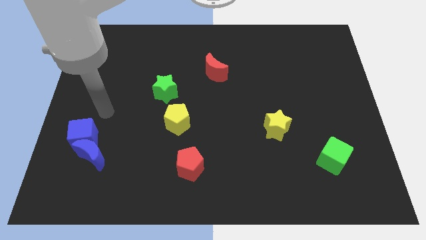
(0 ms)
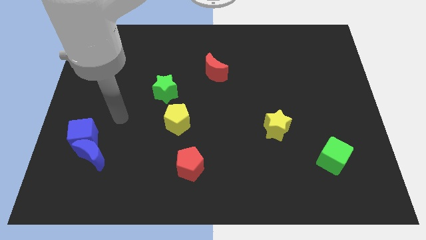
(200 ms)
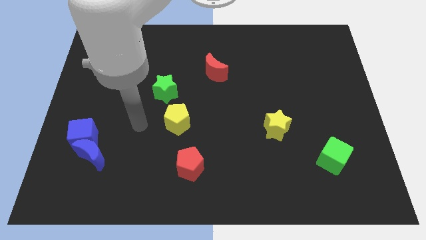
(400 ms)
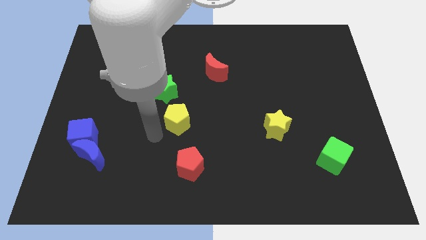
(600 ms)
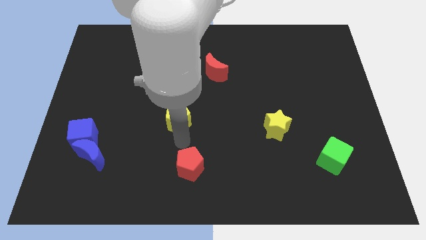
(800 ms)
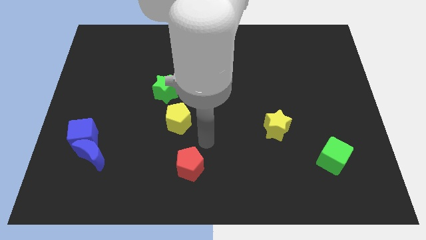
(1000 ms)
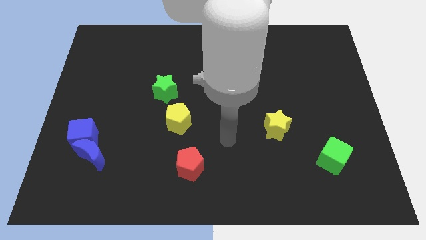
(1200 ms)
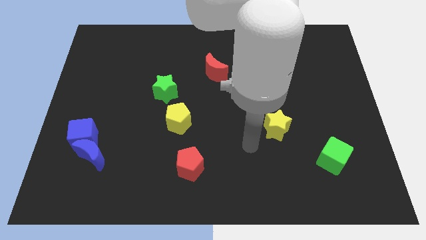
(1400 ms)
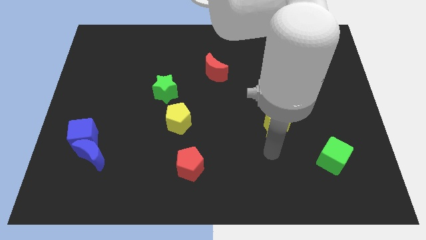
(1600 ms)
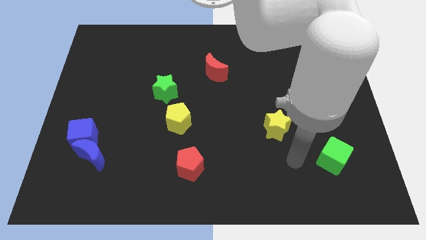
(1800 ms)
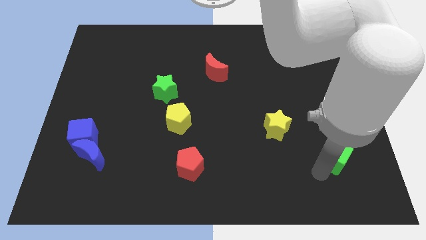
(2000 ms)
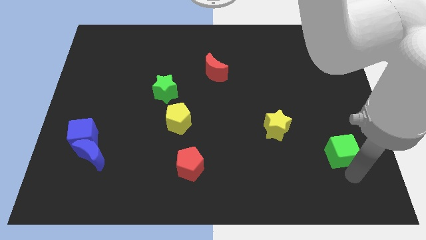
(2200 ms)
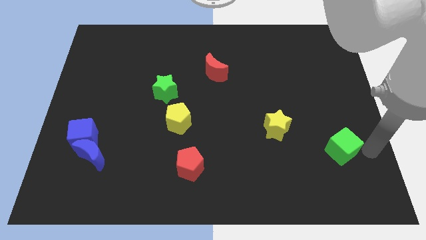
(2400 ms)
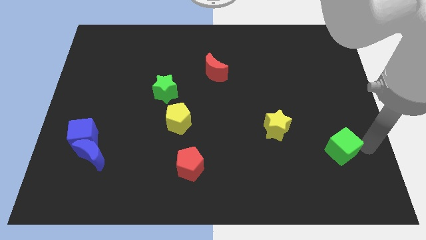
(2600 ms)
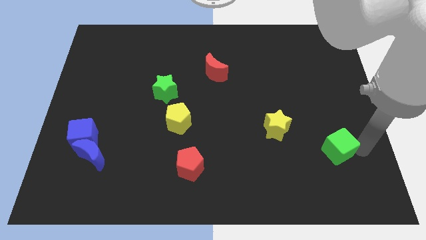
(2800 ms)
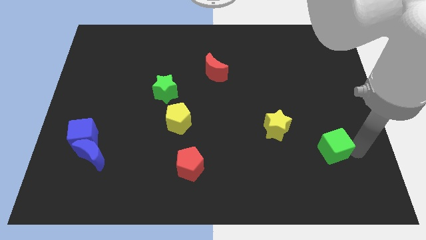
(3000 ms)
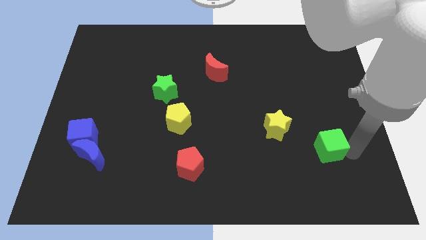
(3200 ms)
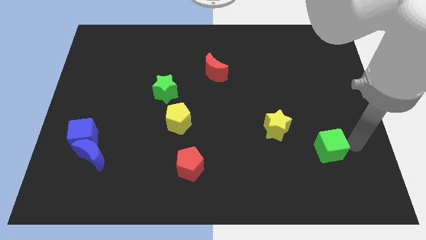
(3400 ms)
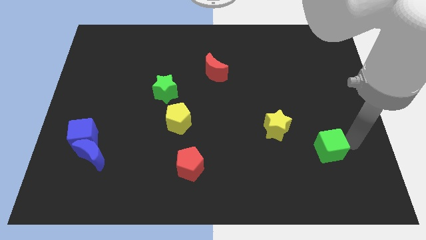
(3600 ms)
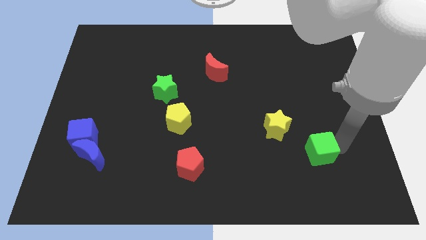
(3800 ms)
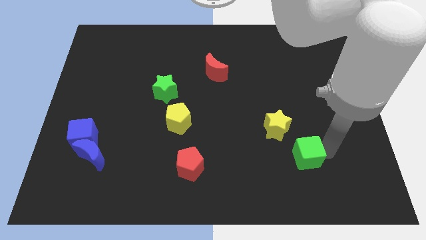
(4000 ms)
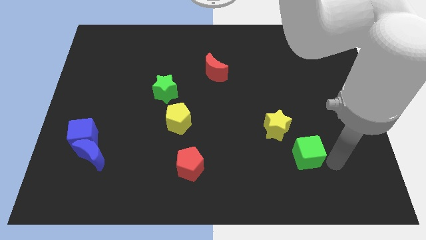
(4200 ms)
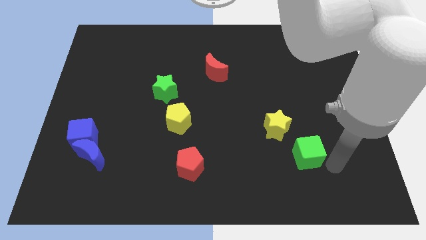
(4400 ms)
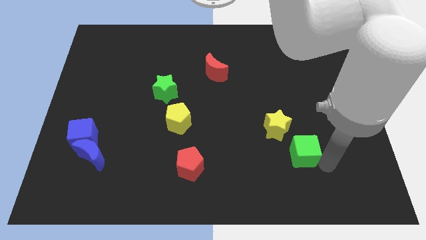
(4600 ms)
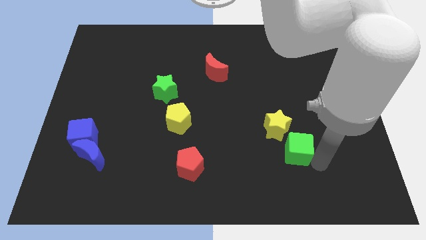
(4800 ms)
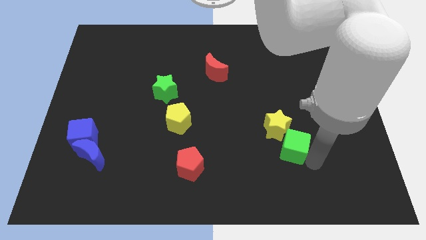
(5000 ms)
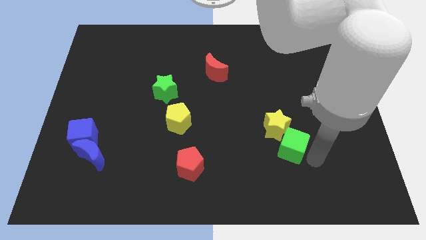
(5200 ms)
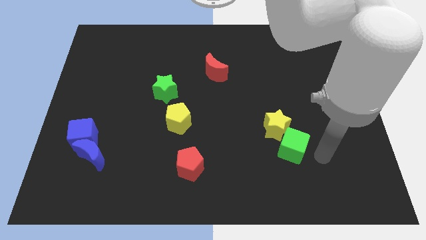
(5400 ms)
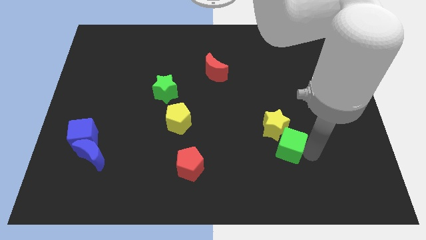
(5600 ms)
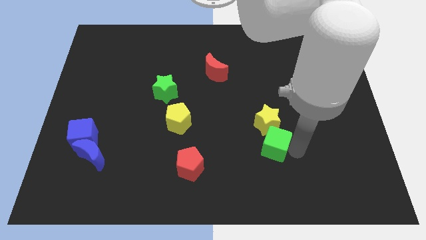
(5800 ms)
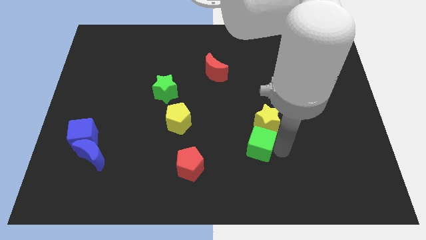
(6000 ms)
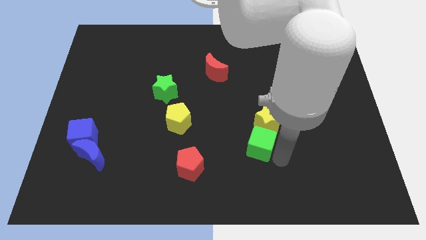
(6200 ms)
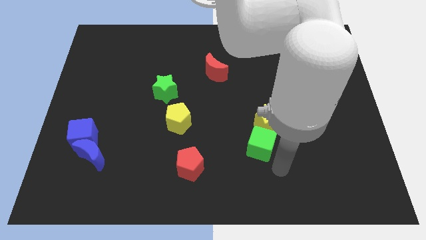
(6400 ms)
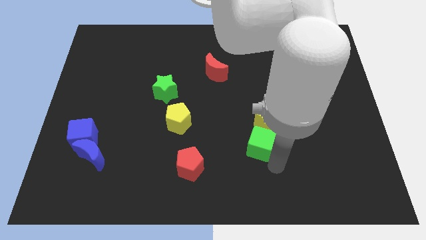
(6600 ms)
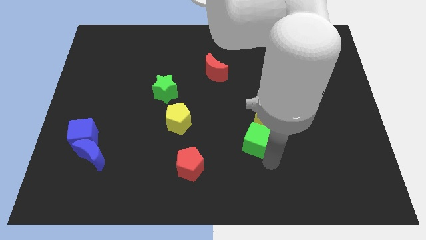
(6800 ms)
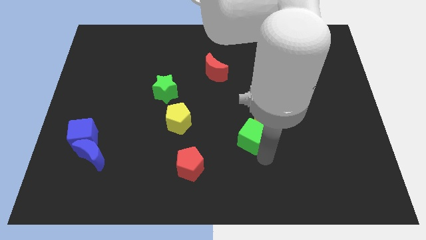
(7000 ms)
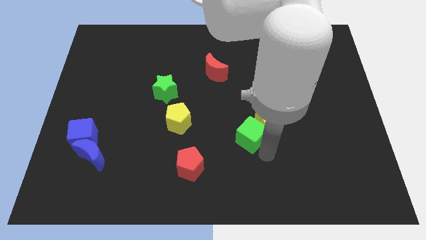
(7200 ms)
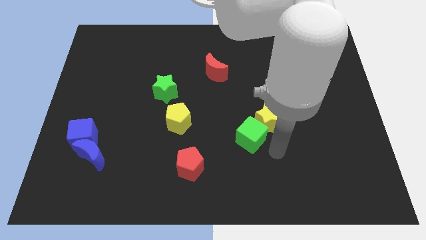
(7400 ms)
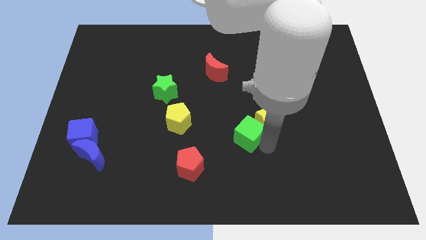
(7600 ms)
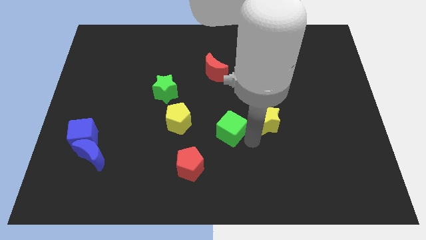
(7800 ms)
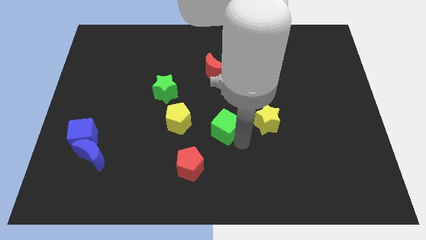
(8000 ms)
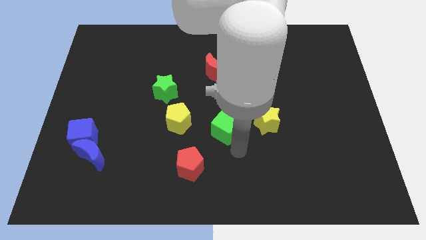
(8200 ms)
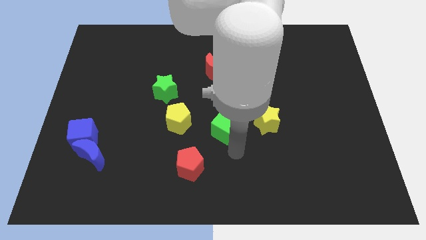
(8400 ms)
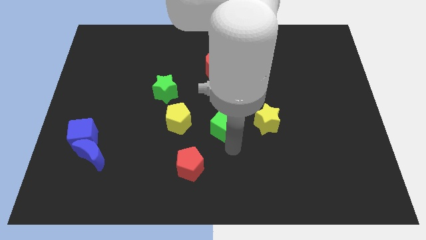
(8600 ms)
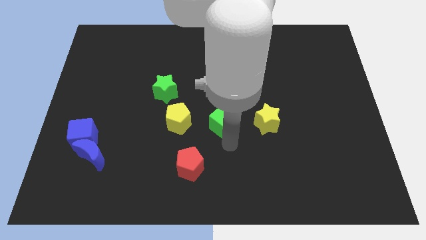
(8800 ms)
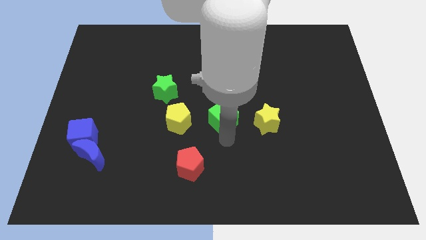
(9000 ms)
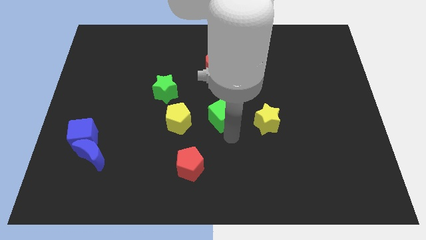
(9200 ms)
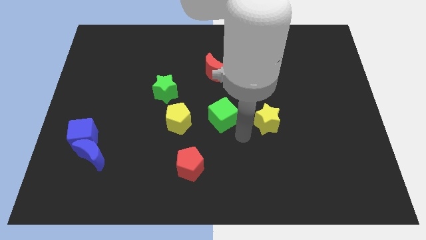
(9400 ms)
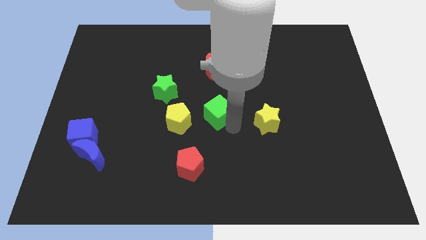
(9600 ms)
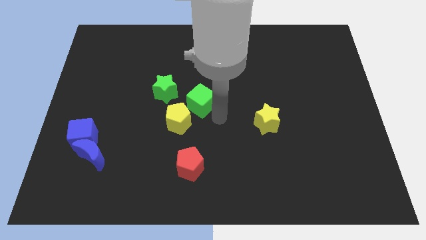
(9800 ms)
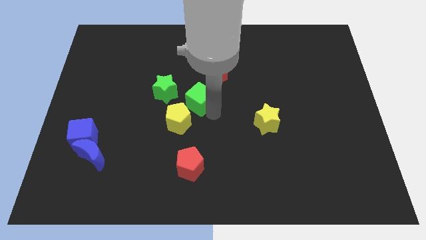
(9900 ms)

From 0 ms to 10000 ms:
put the green cube to the top of the yellow pentagon

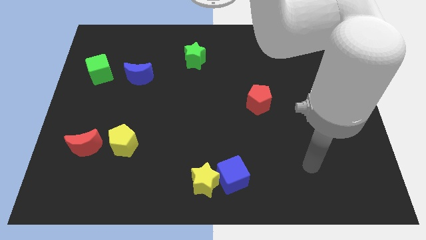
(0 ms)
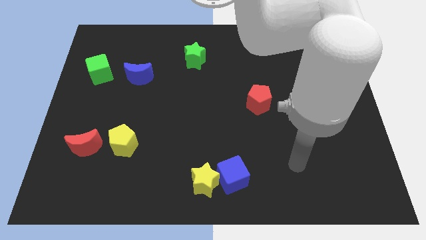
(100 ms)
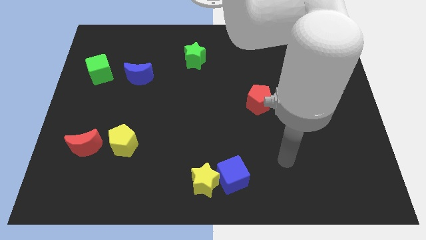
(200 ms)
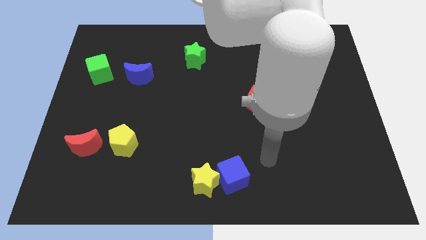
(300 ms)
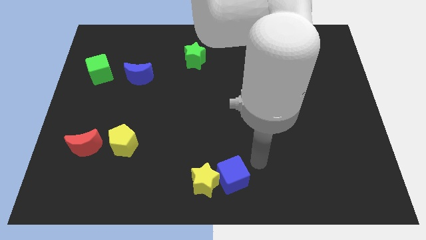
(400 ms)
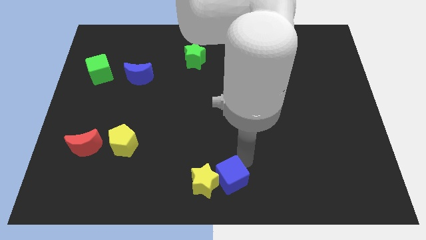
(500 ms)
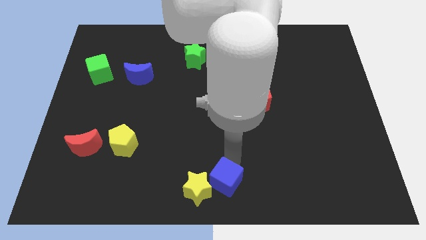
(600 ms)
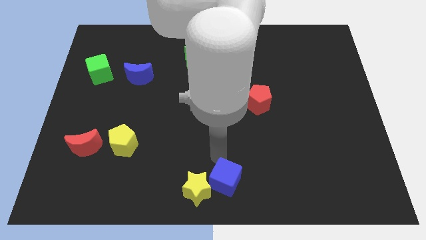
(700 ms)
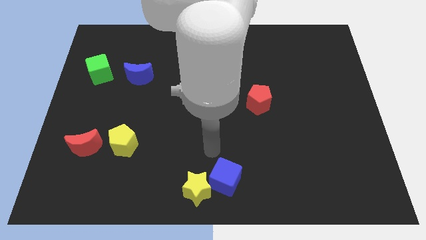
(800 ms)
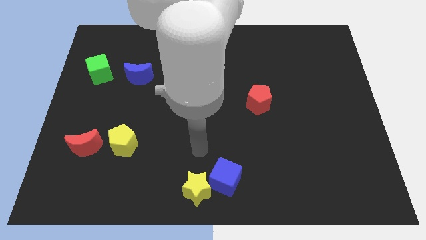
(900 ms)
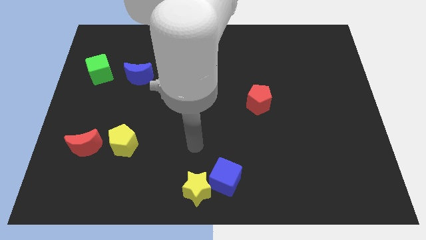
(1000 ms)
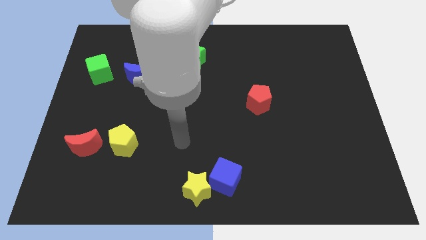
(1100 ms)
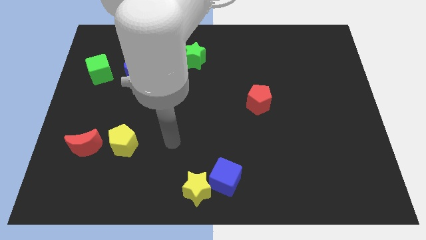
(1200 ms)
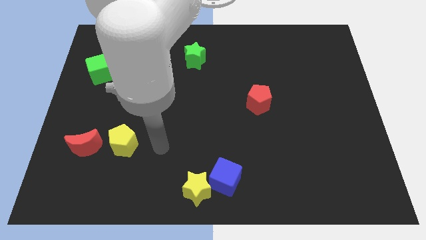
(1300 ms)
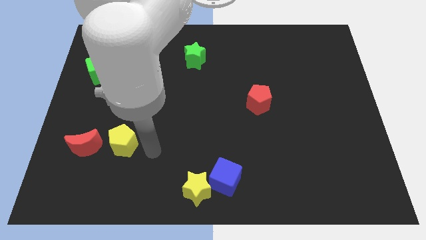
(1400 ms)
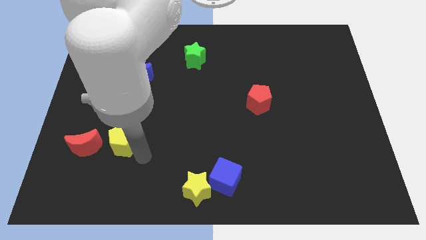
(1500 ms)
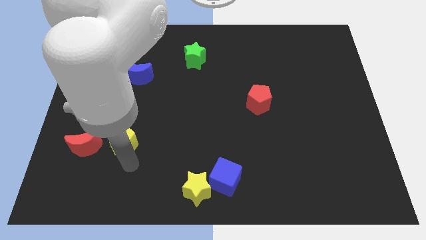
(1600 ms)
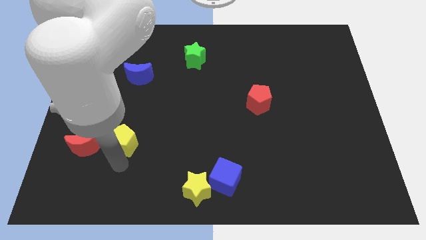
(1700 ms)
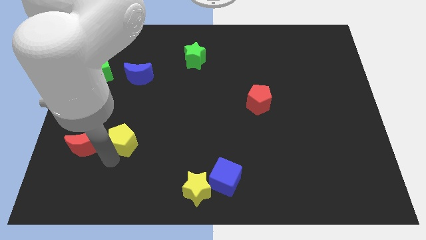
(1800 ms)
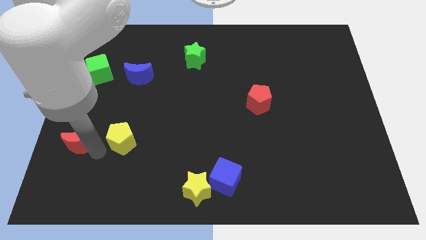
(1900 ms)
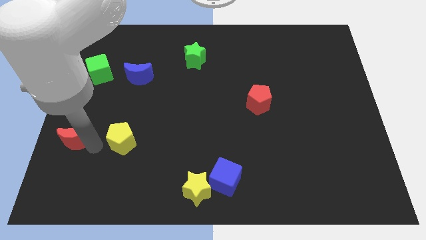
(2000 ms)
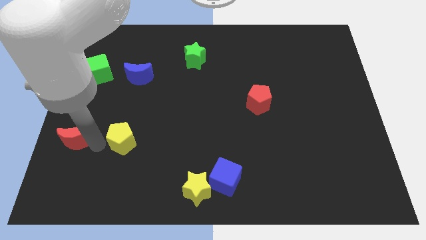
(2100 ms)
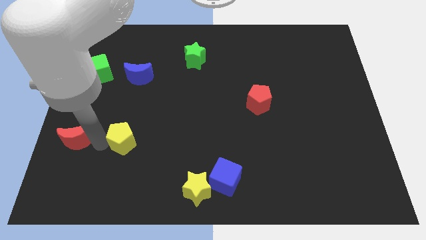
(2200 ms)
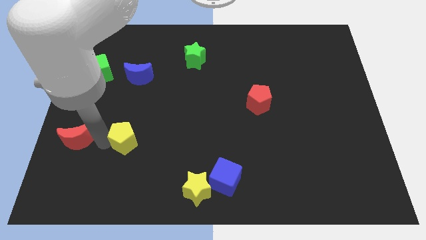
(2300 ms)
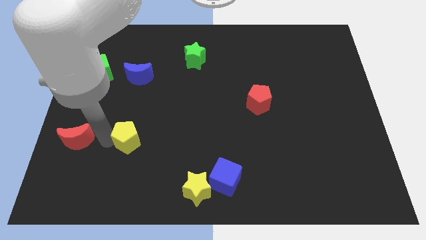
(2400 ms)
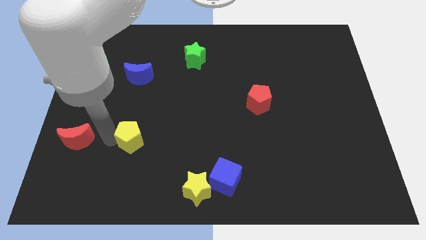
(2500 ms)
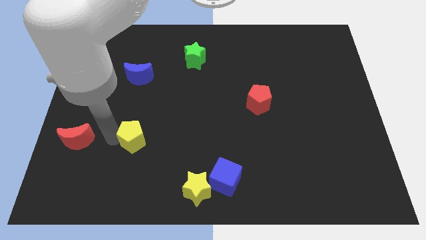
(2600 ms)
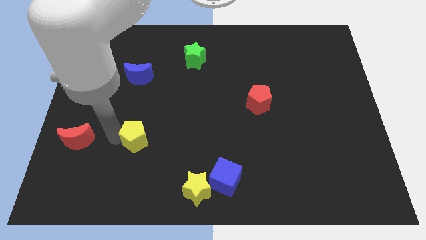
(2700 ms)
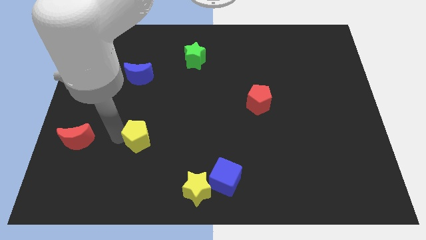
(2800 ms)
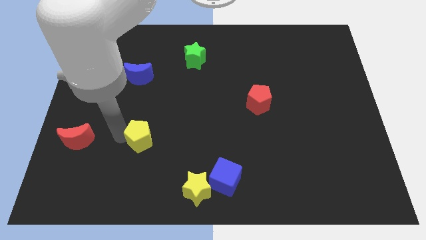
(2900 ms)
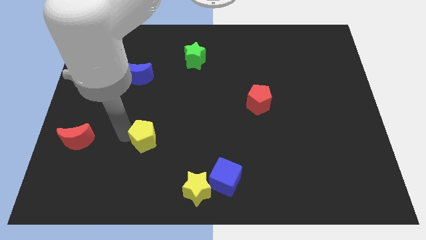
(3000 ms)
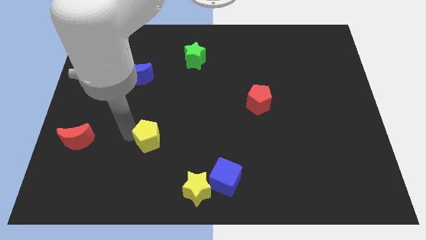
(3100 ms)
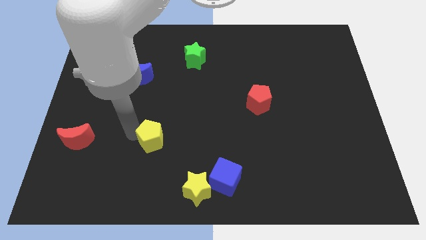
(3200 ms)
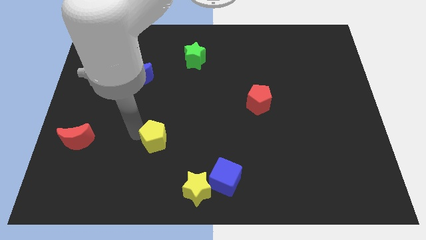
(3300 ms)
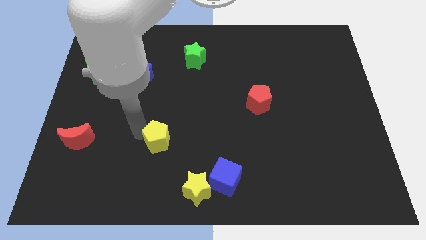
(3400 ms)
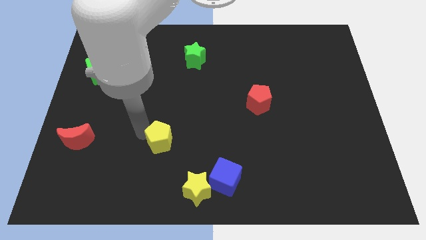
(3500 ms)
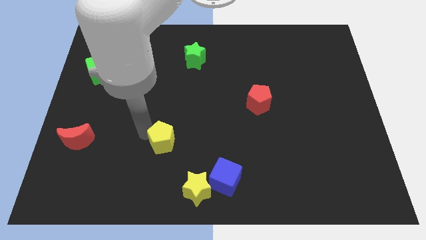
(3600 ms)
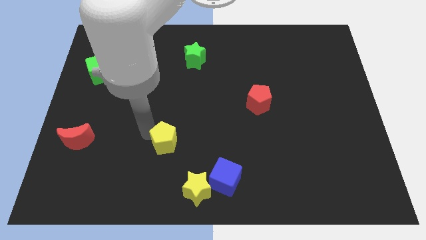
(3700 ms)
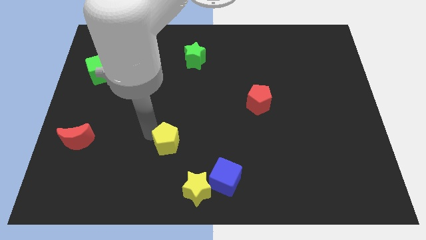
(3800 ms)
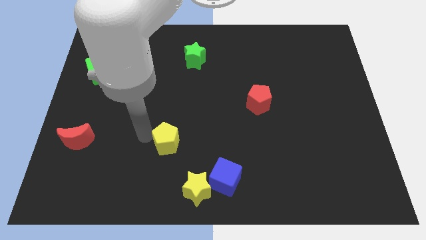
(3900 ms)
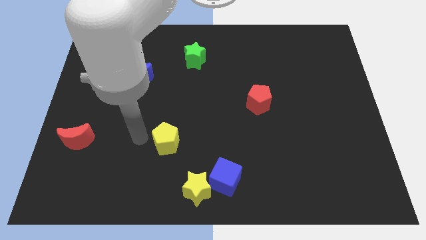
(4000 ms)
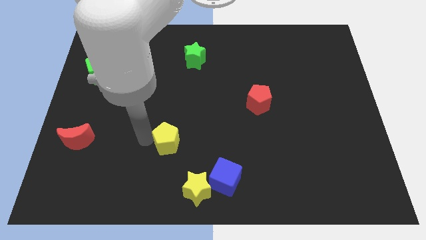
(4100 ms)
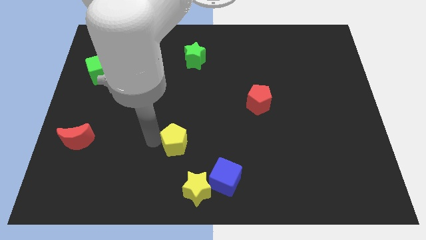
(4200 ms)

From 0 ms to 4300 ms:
move the yellow pentagon to the top of the yellow star
